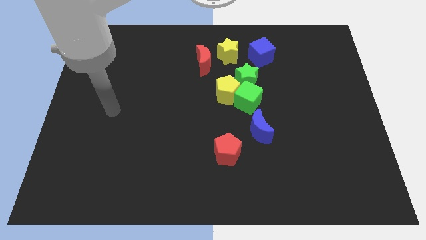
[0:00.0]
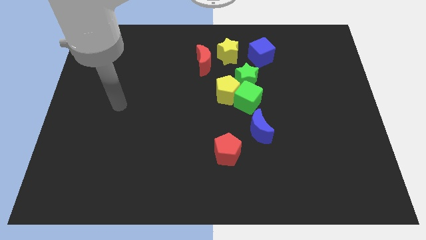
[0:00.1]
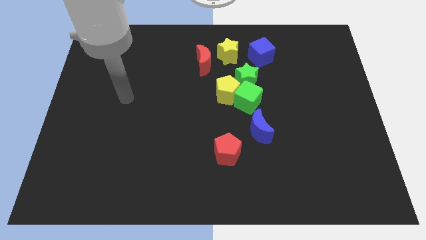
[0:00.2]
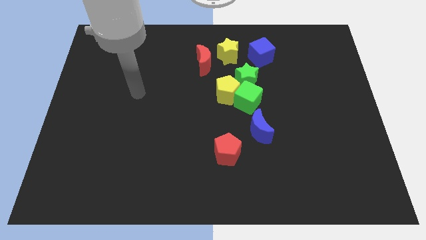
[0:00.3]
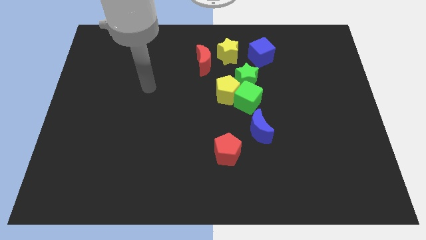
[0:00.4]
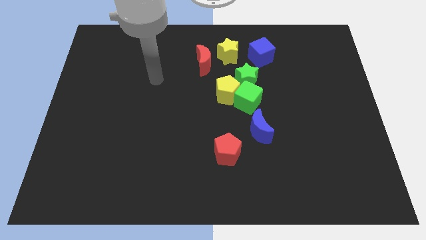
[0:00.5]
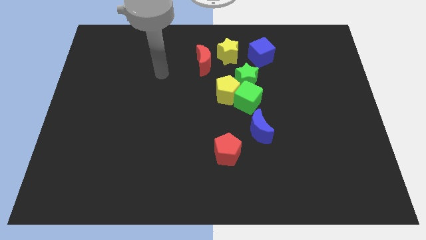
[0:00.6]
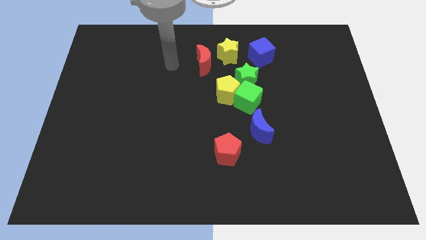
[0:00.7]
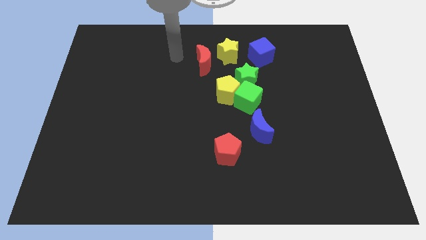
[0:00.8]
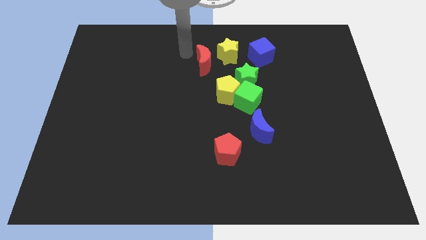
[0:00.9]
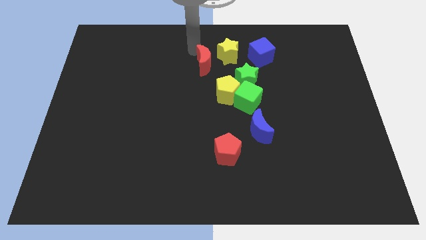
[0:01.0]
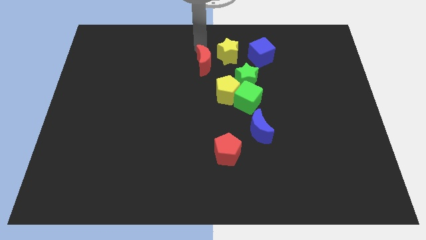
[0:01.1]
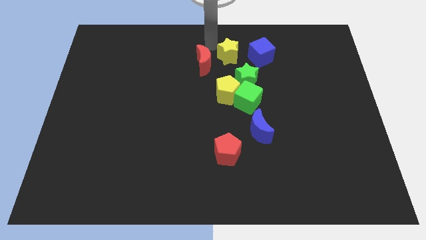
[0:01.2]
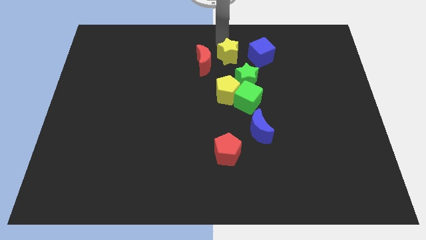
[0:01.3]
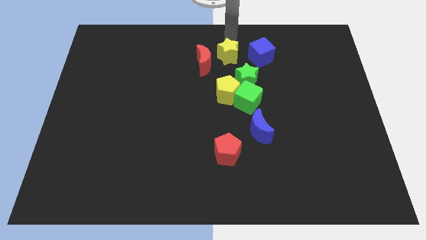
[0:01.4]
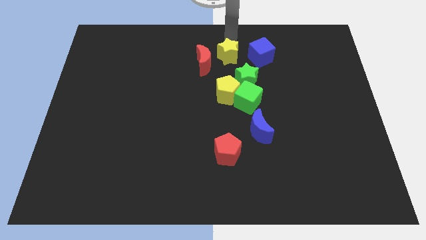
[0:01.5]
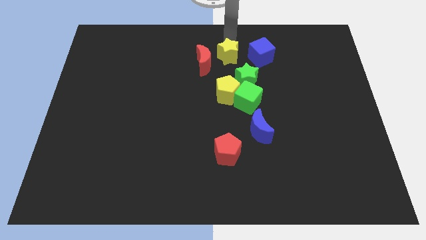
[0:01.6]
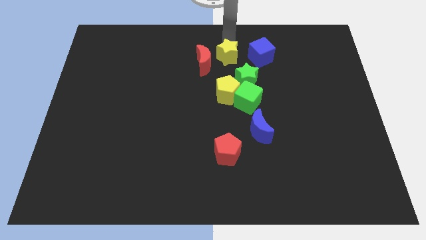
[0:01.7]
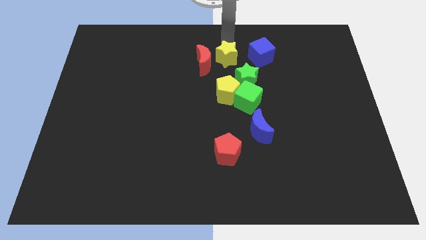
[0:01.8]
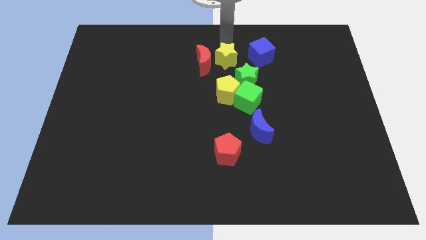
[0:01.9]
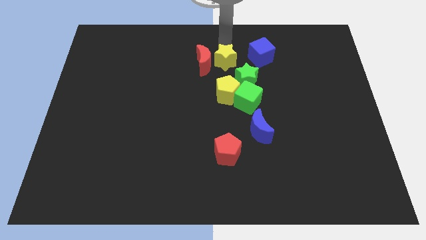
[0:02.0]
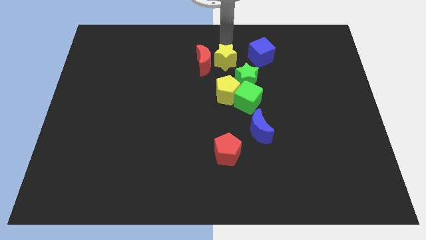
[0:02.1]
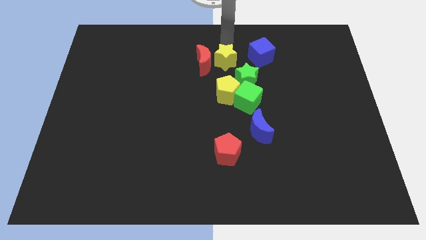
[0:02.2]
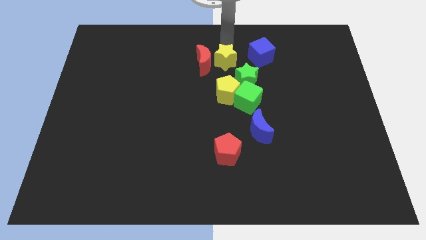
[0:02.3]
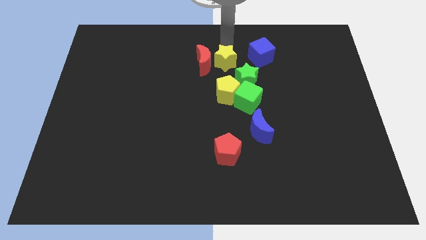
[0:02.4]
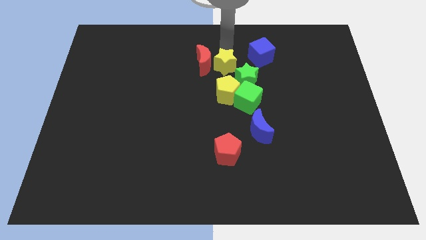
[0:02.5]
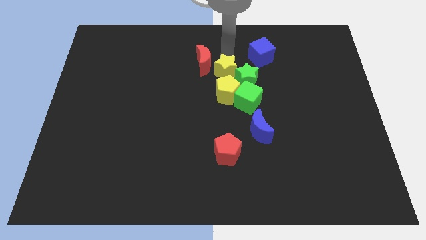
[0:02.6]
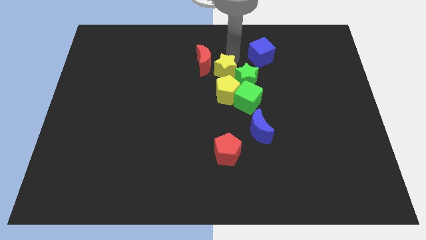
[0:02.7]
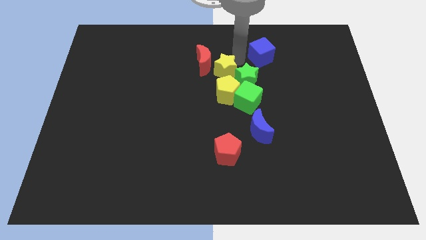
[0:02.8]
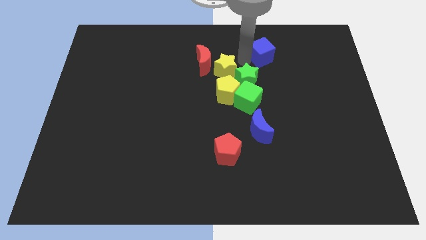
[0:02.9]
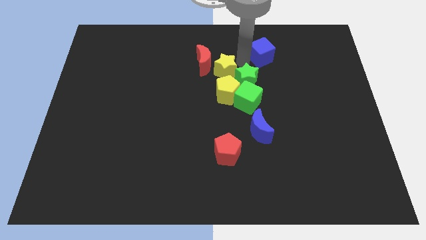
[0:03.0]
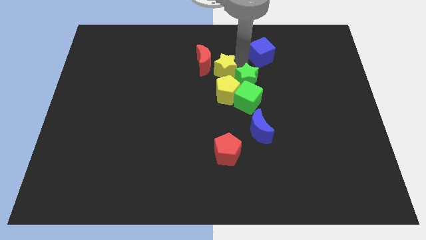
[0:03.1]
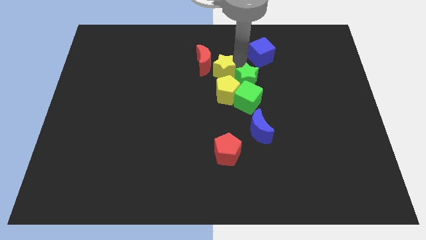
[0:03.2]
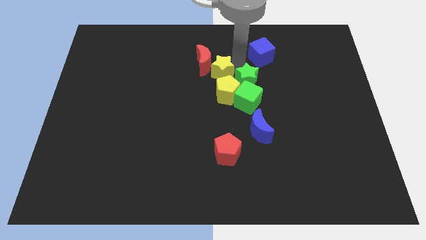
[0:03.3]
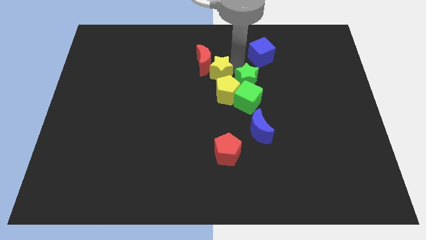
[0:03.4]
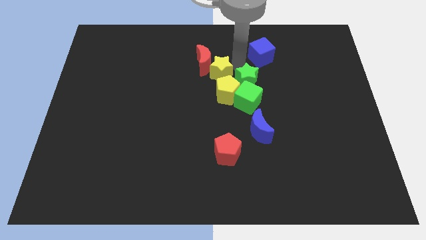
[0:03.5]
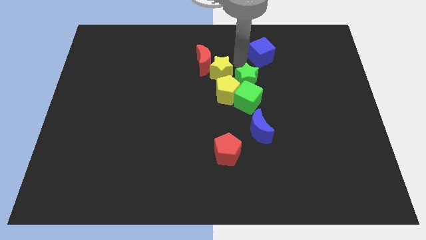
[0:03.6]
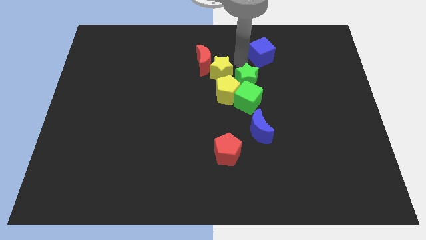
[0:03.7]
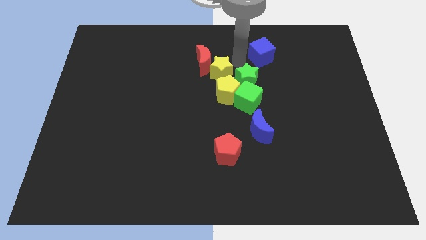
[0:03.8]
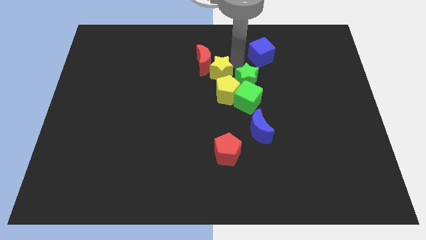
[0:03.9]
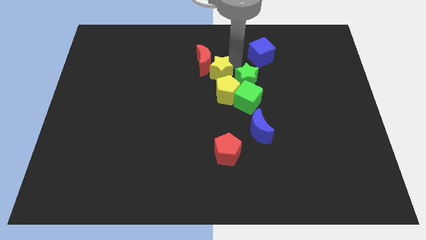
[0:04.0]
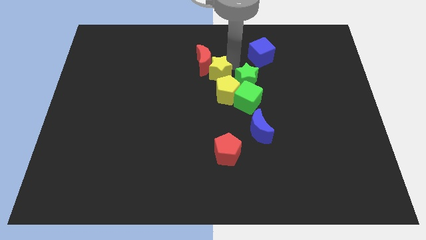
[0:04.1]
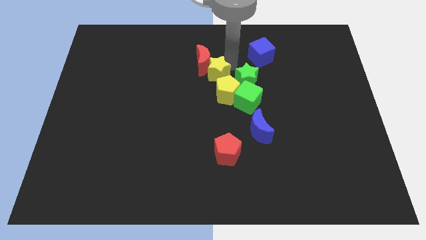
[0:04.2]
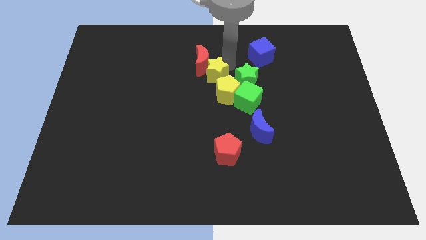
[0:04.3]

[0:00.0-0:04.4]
slide the yellow star somewhat diagonally downwards and to the left

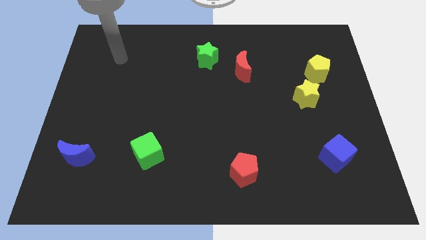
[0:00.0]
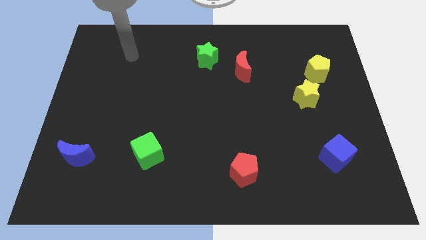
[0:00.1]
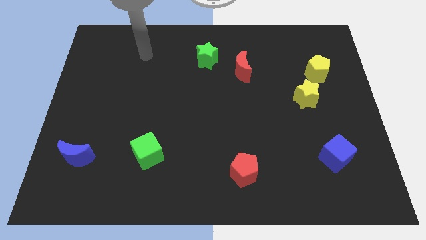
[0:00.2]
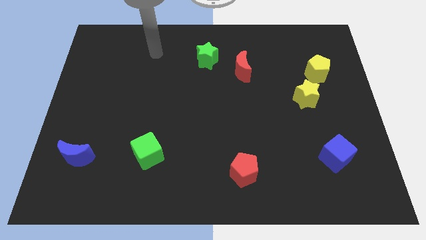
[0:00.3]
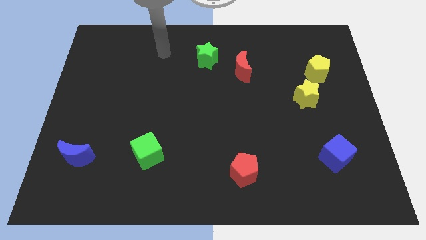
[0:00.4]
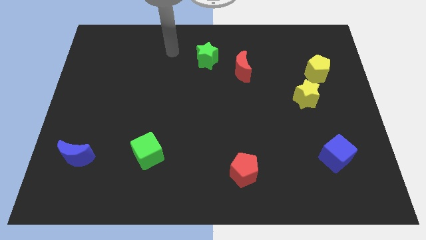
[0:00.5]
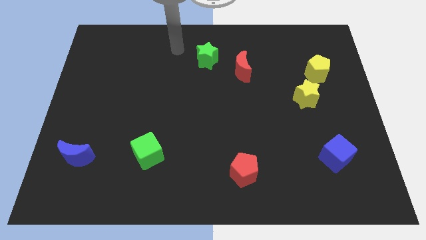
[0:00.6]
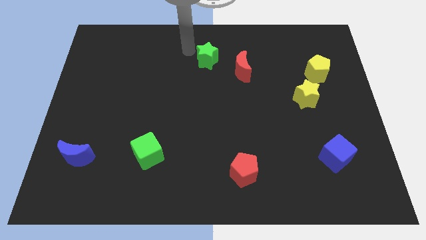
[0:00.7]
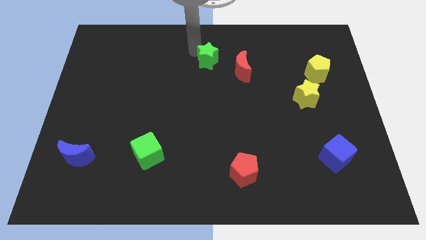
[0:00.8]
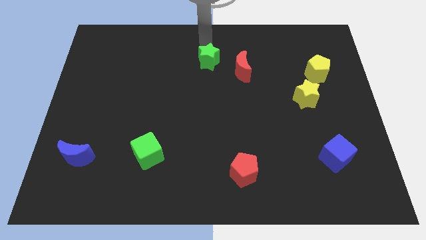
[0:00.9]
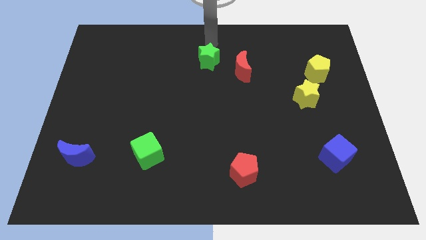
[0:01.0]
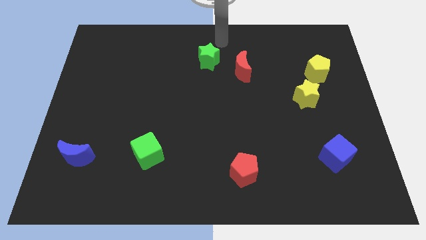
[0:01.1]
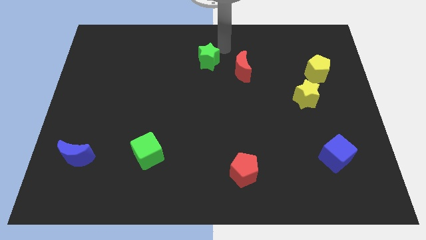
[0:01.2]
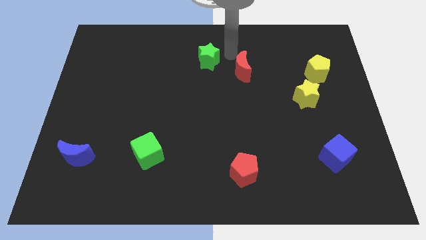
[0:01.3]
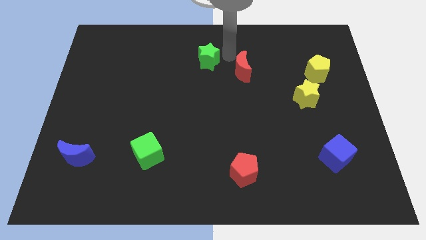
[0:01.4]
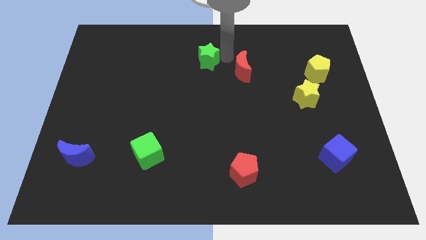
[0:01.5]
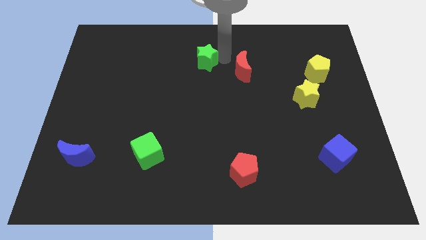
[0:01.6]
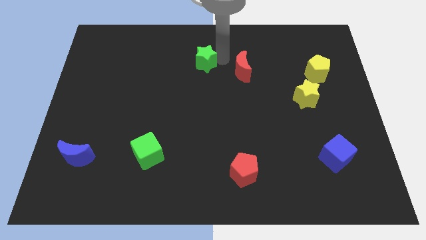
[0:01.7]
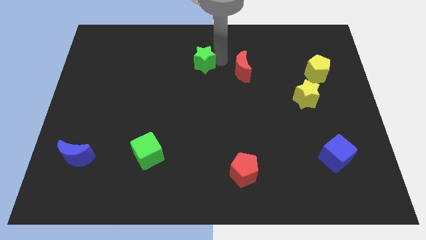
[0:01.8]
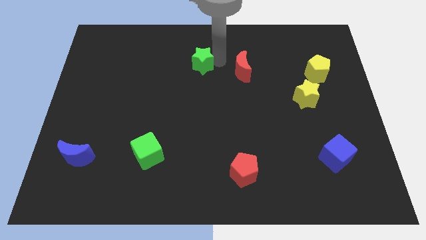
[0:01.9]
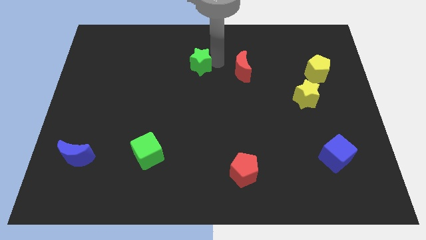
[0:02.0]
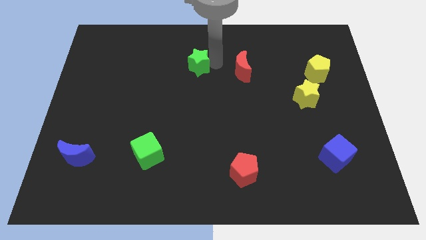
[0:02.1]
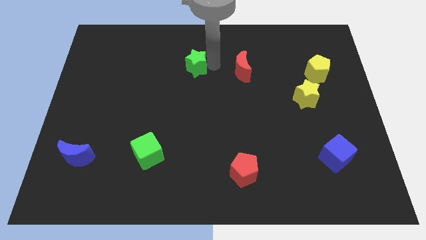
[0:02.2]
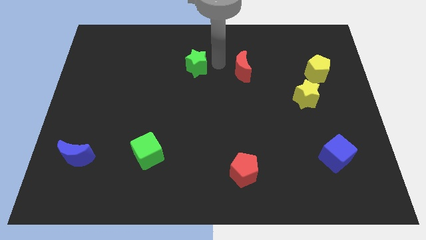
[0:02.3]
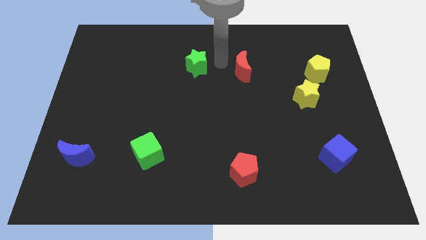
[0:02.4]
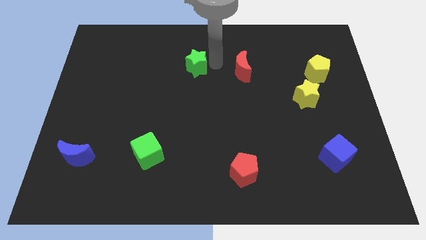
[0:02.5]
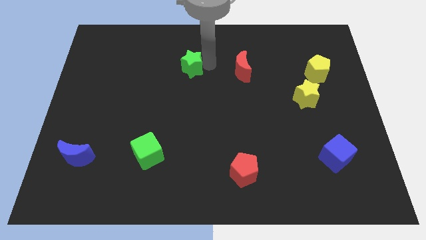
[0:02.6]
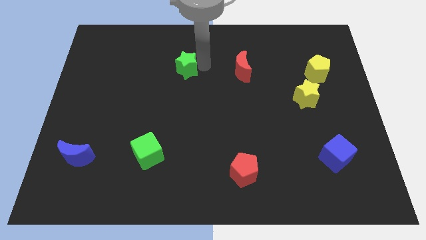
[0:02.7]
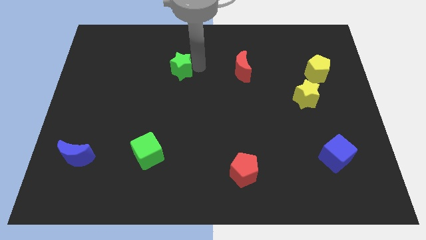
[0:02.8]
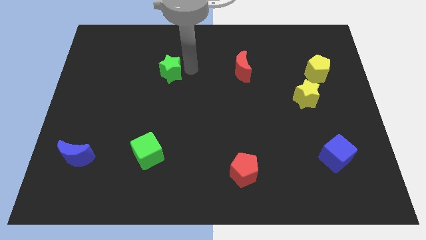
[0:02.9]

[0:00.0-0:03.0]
move the green star somewhat left

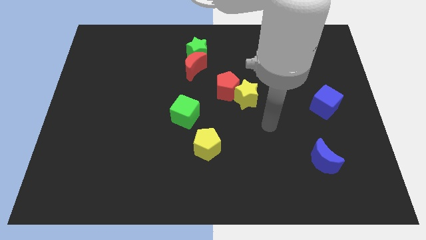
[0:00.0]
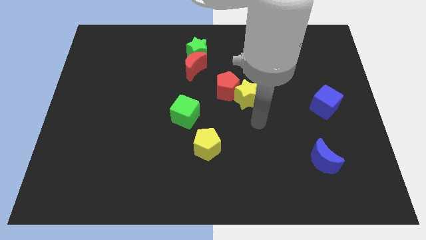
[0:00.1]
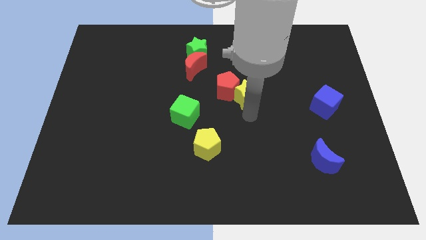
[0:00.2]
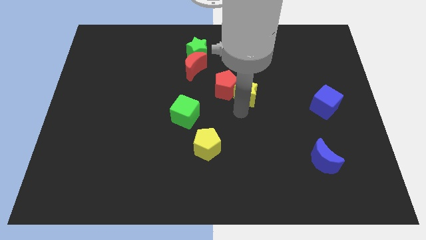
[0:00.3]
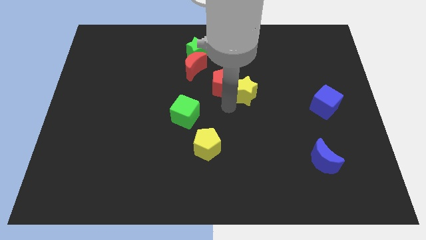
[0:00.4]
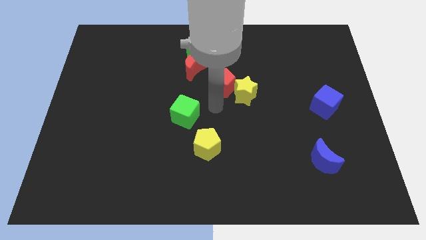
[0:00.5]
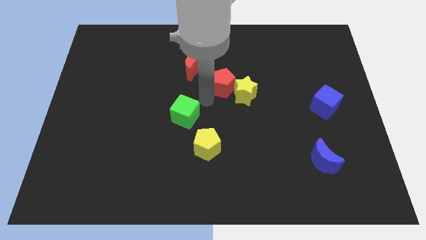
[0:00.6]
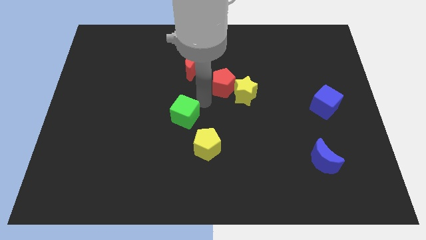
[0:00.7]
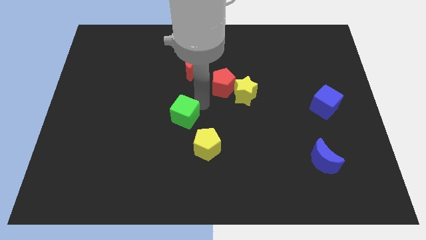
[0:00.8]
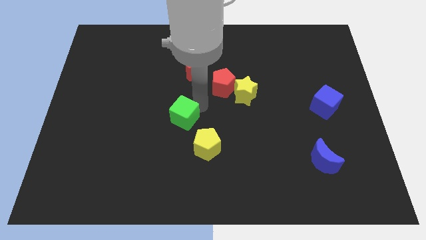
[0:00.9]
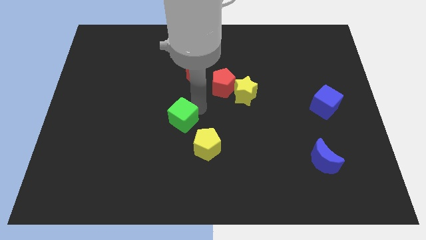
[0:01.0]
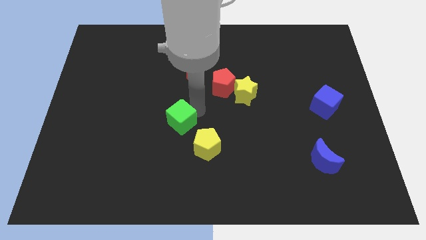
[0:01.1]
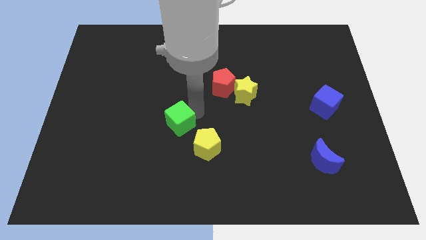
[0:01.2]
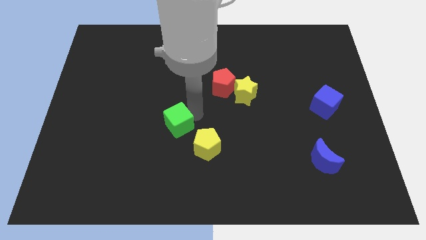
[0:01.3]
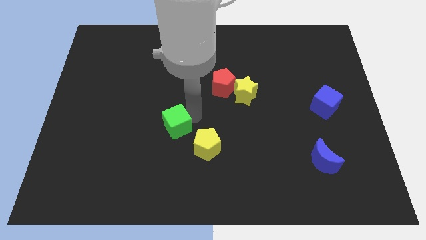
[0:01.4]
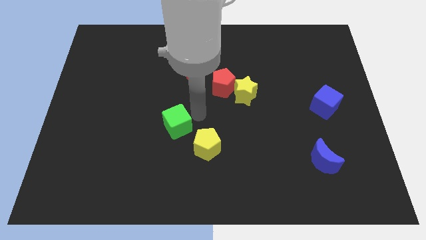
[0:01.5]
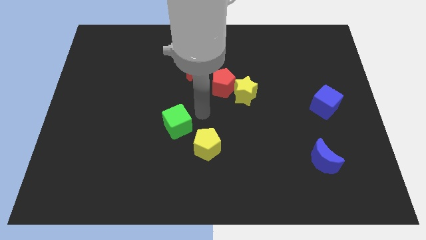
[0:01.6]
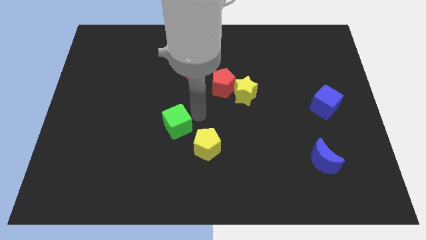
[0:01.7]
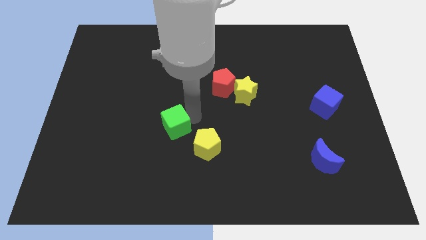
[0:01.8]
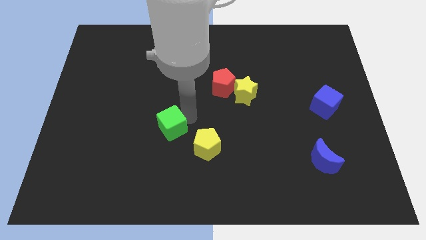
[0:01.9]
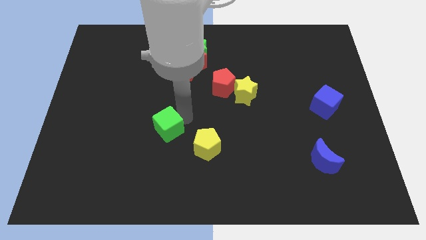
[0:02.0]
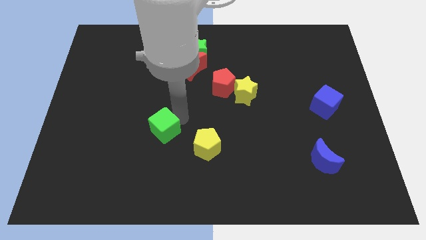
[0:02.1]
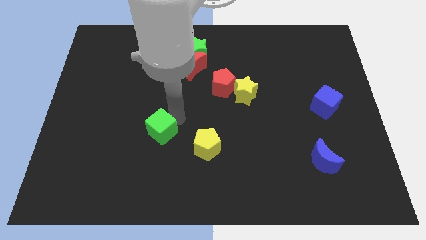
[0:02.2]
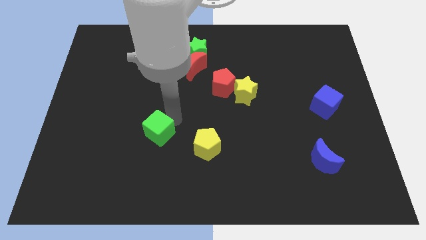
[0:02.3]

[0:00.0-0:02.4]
move the green cube somewhat downwards and left diagonally
